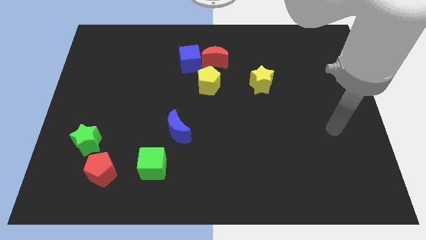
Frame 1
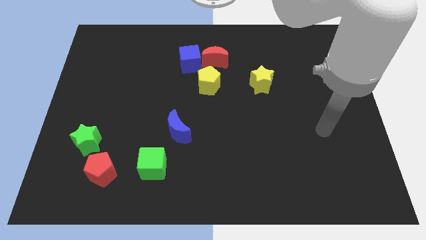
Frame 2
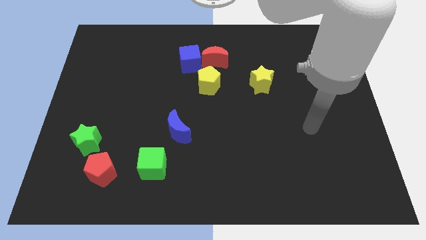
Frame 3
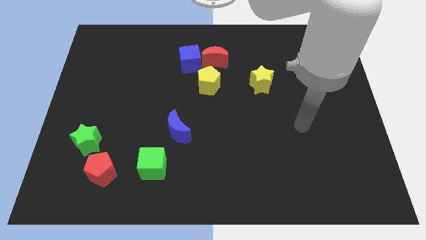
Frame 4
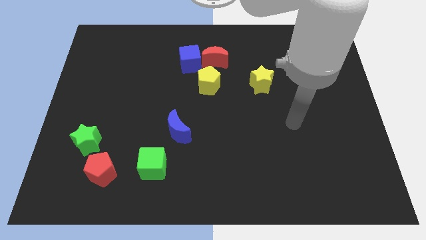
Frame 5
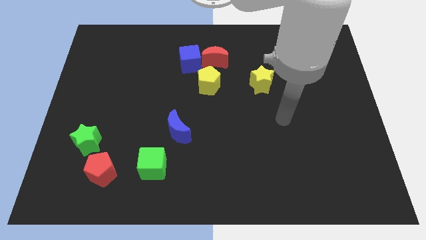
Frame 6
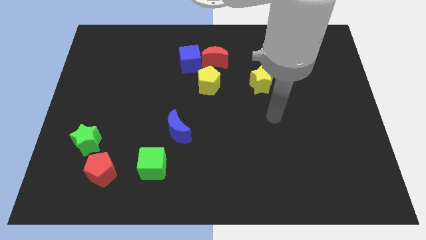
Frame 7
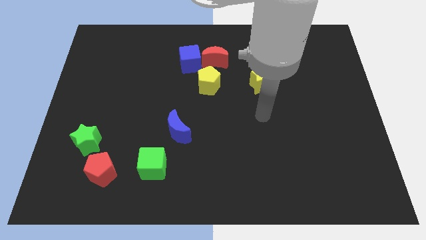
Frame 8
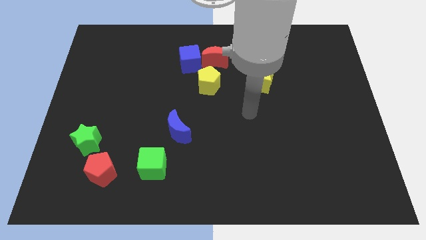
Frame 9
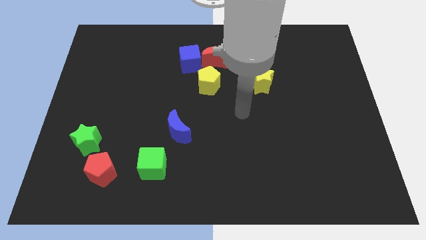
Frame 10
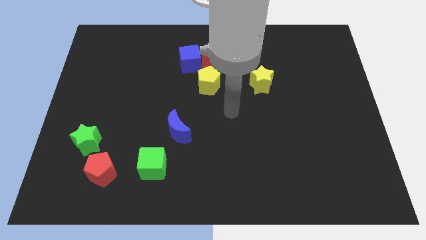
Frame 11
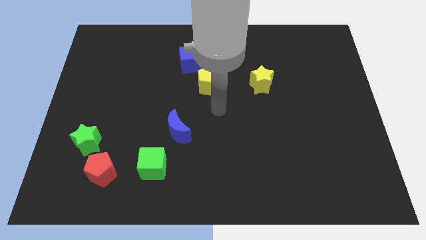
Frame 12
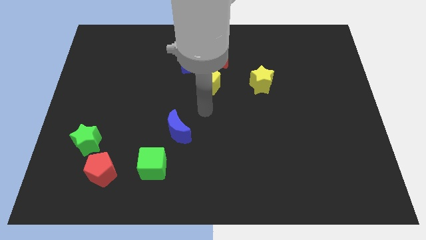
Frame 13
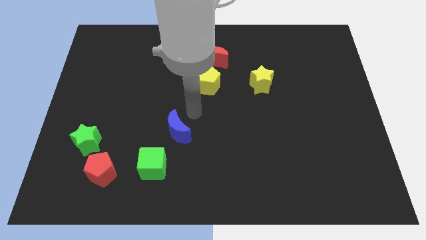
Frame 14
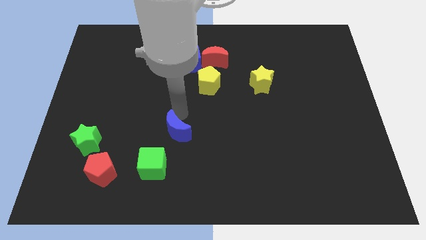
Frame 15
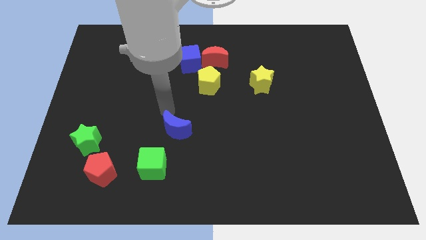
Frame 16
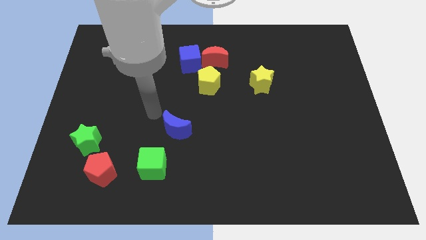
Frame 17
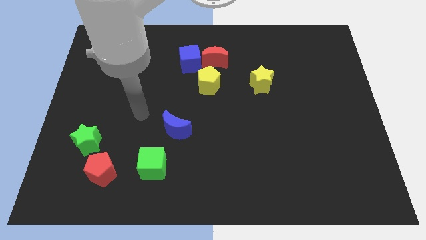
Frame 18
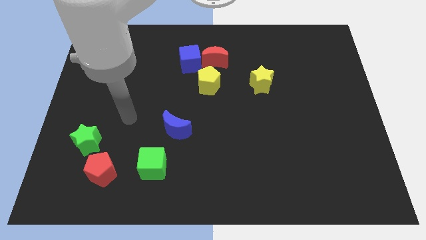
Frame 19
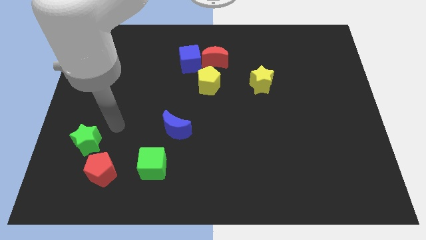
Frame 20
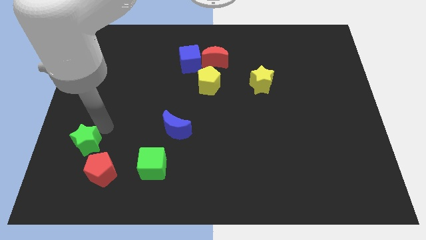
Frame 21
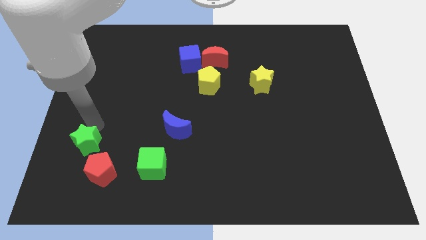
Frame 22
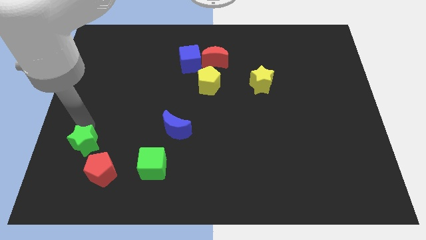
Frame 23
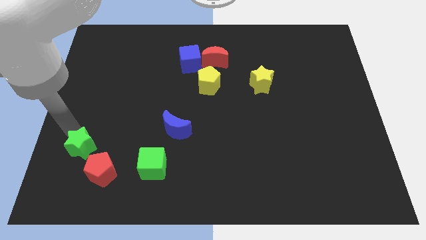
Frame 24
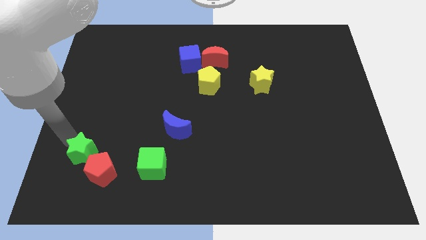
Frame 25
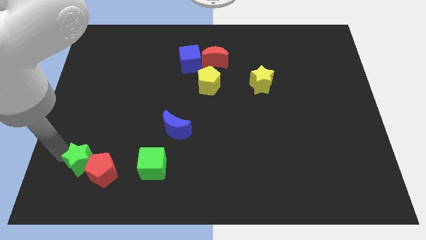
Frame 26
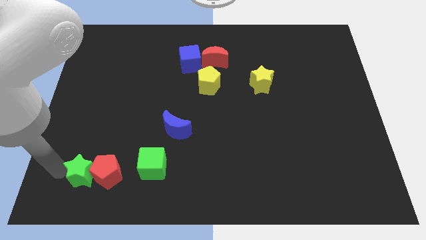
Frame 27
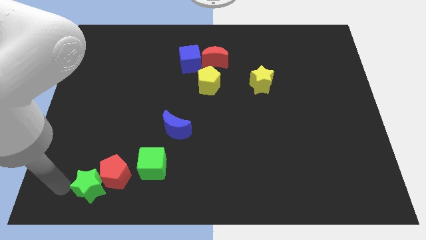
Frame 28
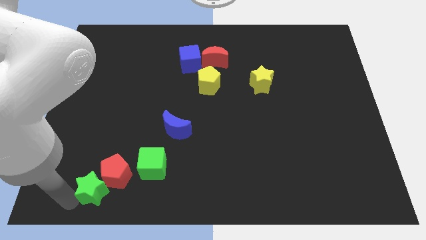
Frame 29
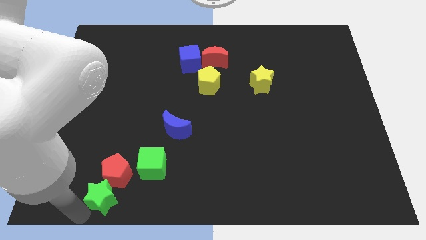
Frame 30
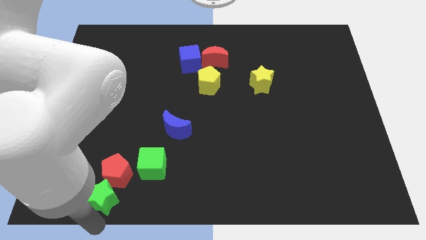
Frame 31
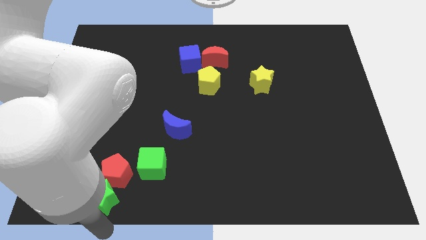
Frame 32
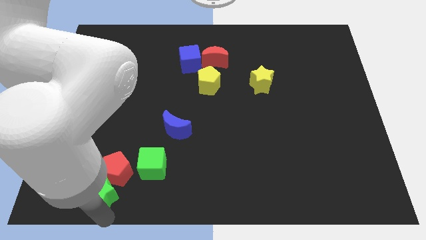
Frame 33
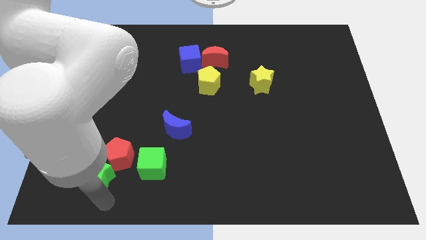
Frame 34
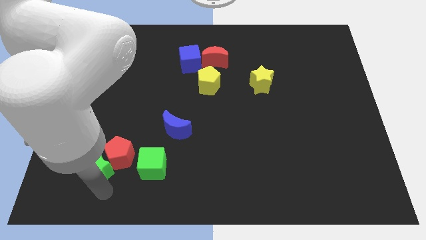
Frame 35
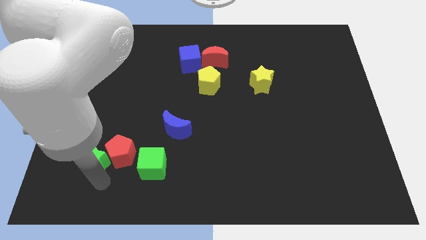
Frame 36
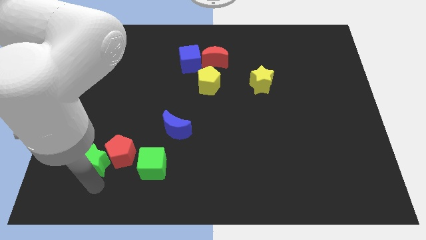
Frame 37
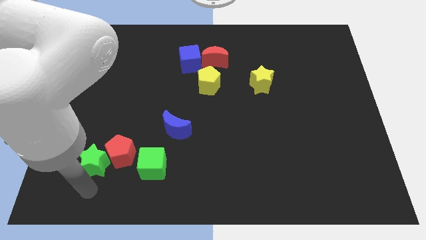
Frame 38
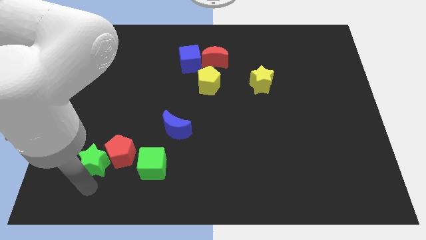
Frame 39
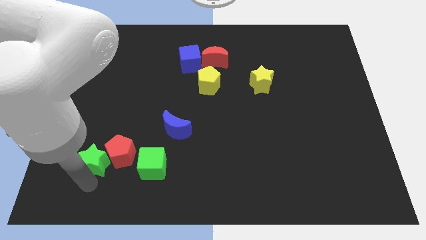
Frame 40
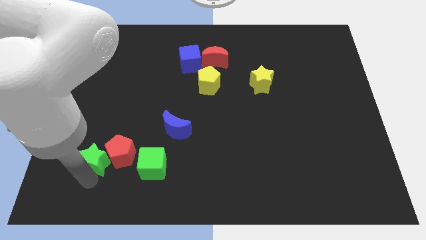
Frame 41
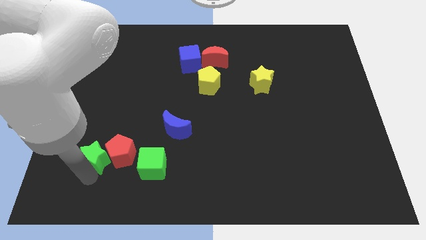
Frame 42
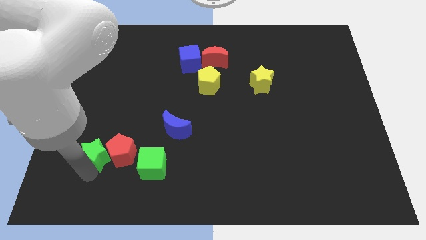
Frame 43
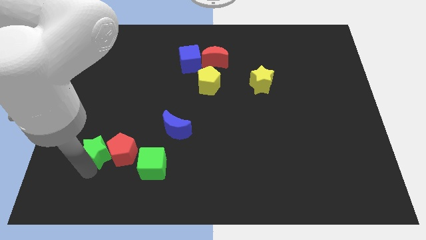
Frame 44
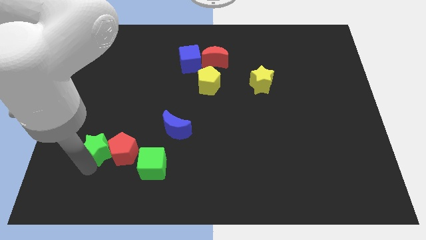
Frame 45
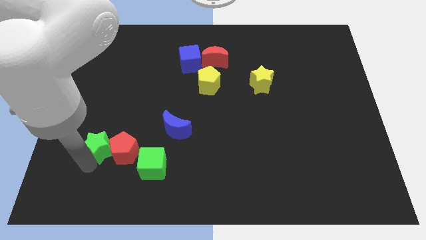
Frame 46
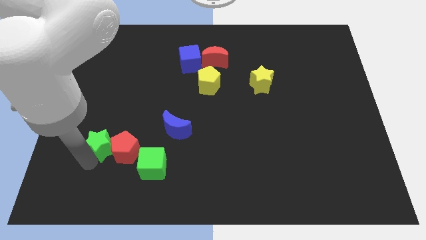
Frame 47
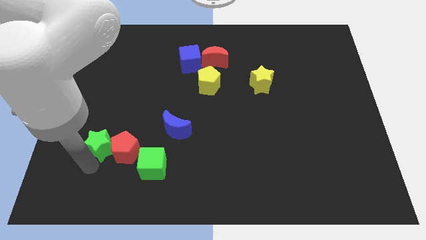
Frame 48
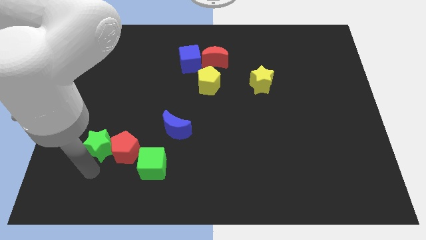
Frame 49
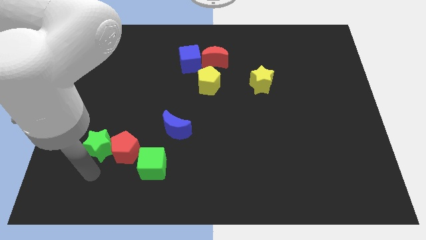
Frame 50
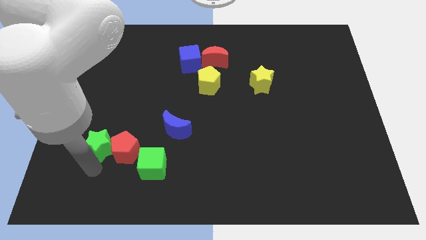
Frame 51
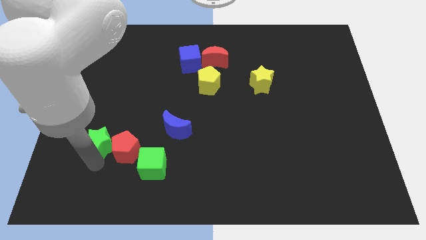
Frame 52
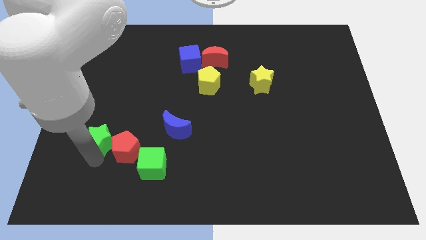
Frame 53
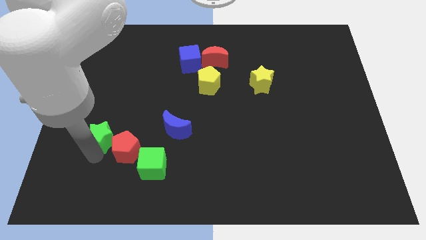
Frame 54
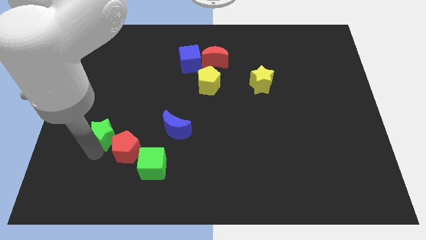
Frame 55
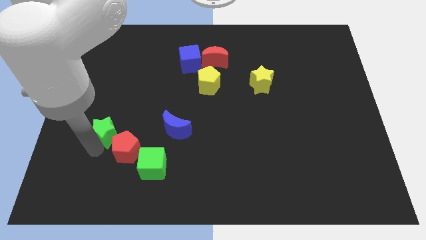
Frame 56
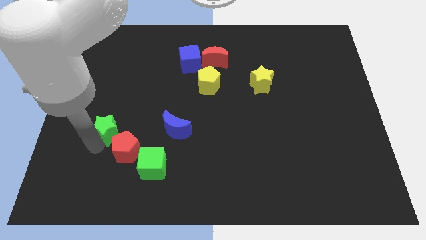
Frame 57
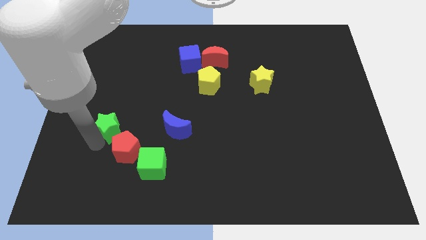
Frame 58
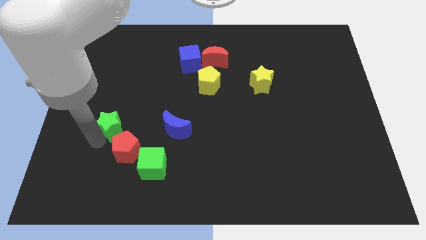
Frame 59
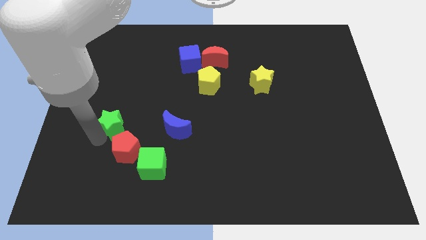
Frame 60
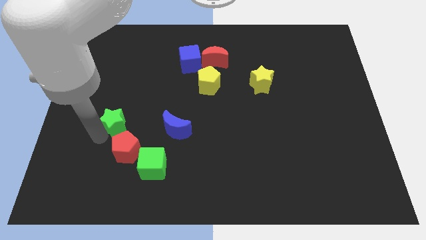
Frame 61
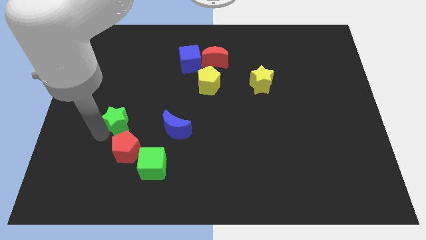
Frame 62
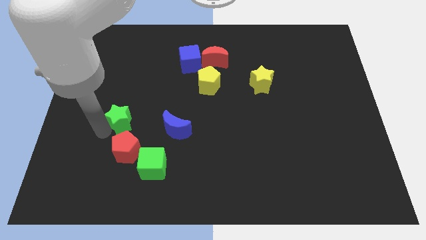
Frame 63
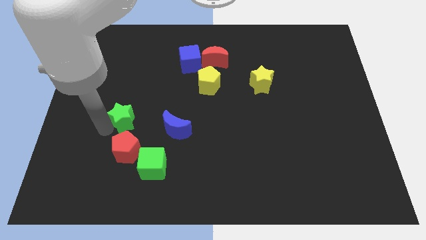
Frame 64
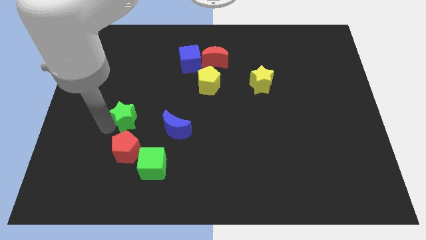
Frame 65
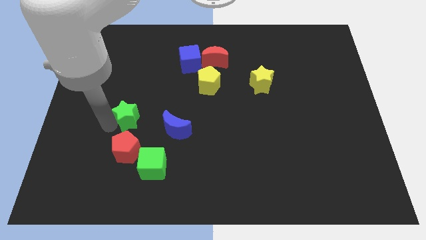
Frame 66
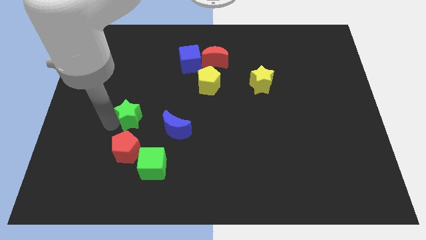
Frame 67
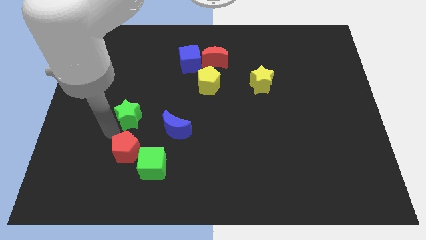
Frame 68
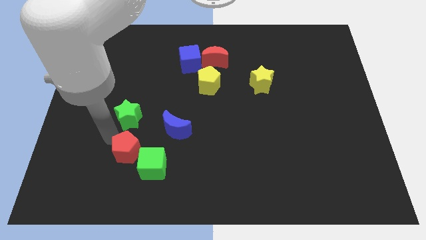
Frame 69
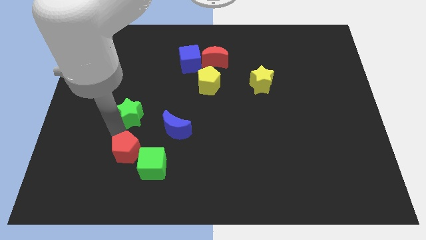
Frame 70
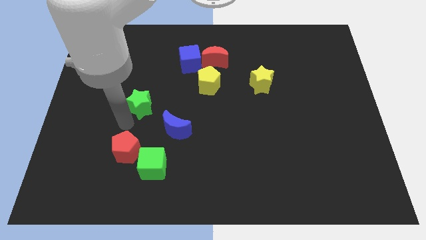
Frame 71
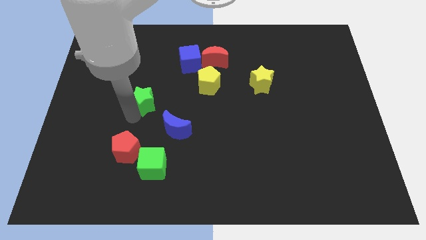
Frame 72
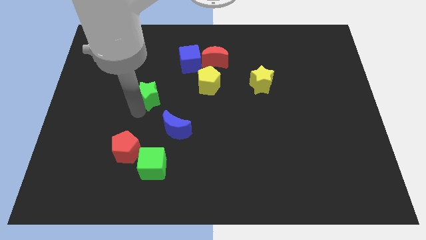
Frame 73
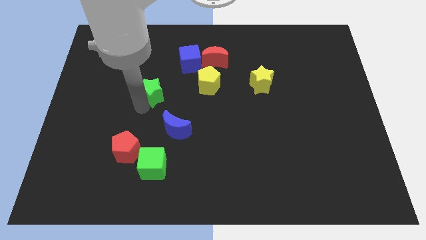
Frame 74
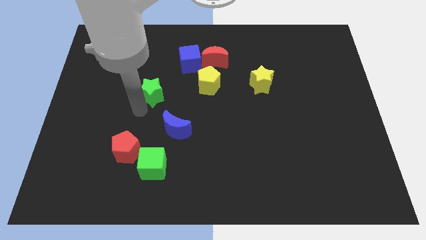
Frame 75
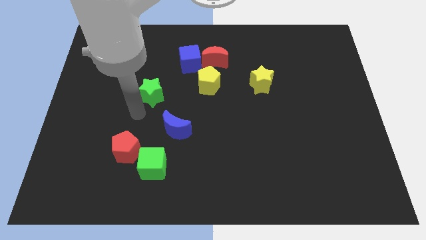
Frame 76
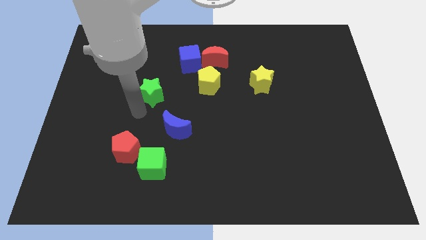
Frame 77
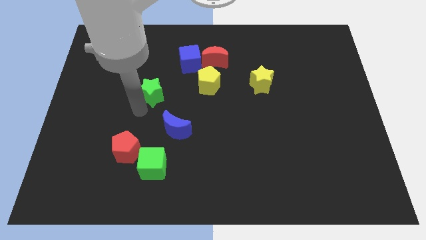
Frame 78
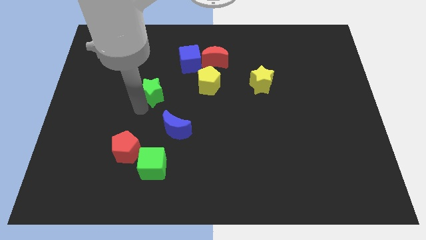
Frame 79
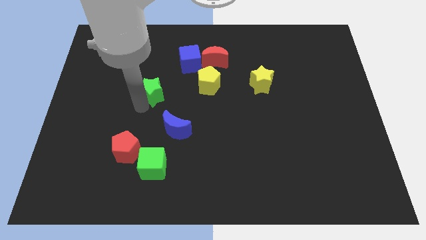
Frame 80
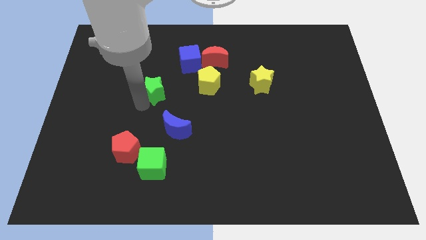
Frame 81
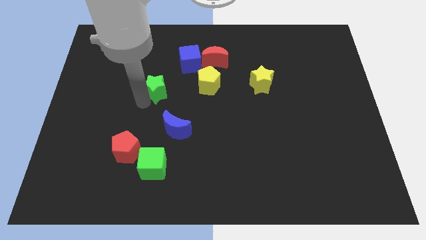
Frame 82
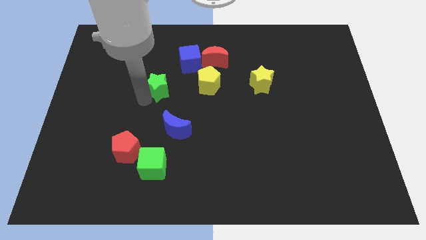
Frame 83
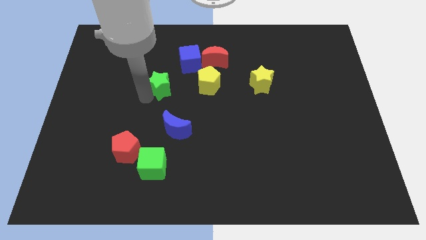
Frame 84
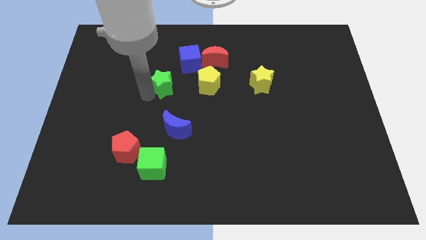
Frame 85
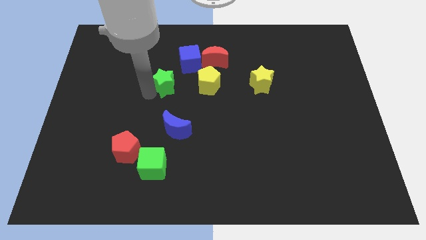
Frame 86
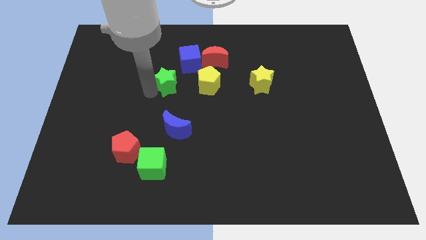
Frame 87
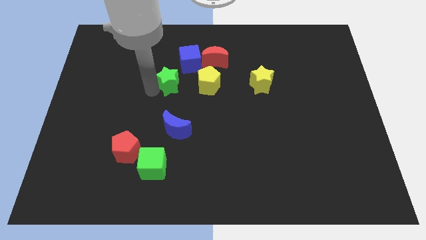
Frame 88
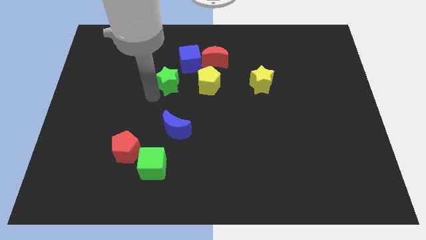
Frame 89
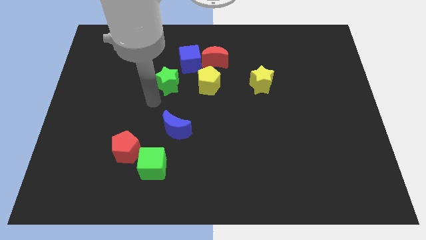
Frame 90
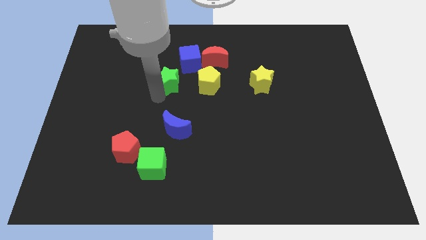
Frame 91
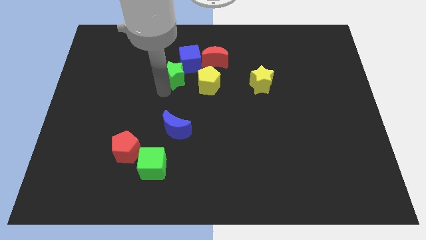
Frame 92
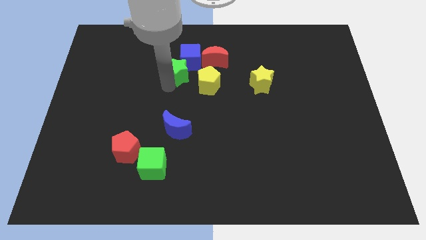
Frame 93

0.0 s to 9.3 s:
move the green star towards the blue cube
